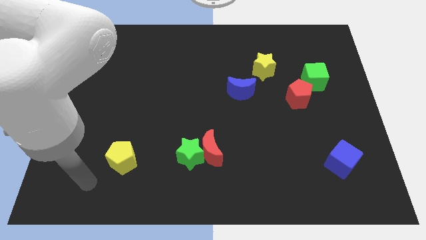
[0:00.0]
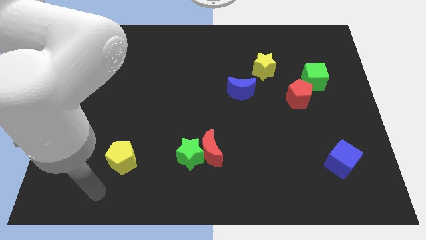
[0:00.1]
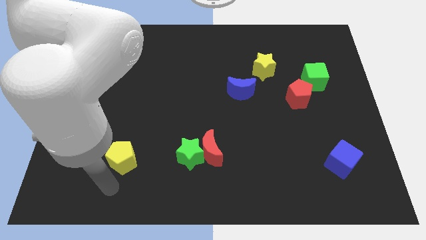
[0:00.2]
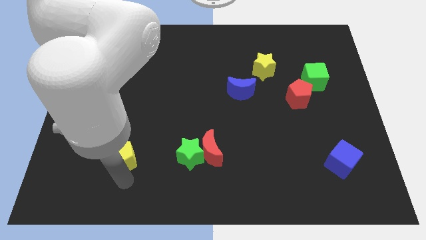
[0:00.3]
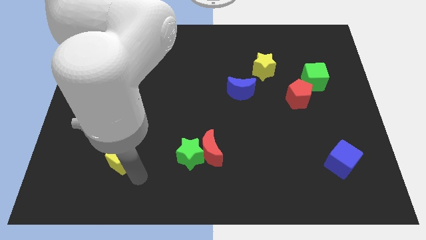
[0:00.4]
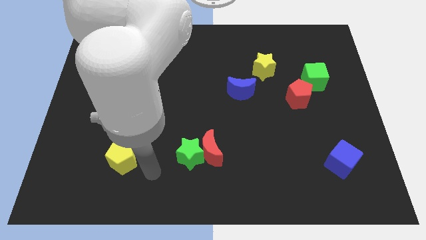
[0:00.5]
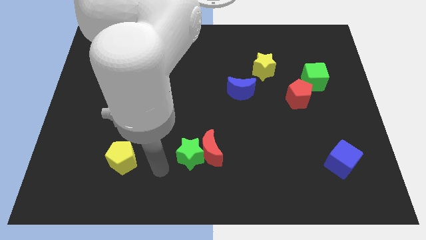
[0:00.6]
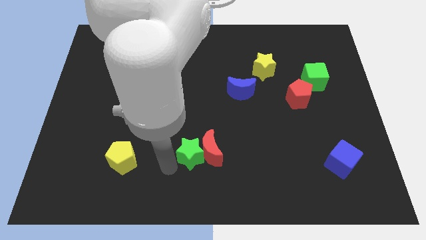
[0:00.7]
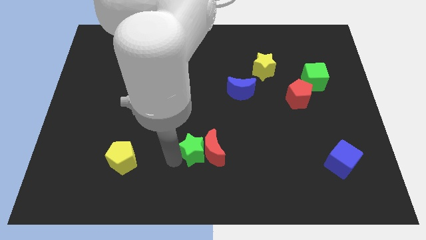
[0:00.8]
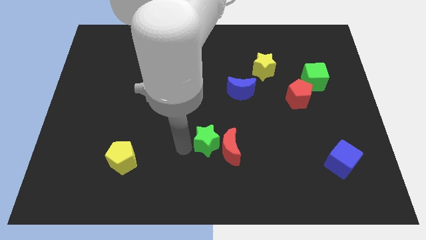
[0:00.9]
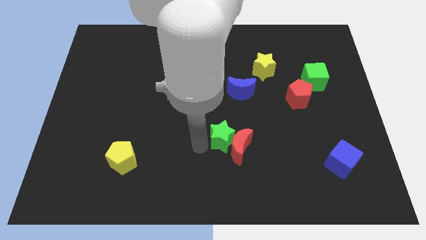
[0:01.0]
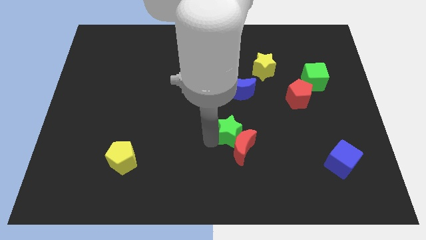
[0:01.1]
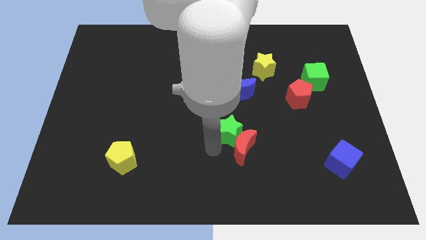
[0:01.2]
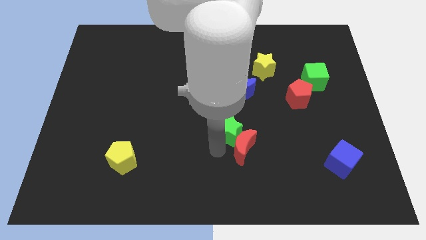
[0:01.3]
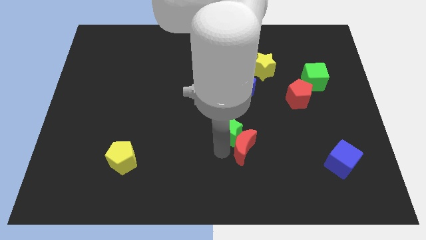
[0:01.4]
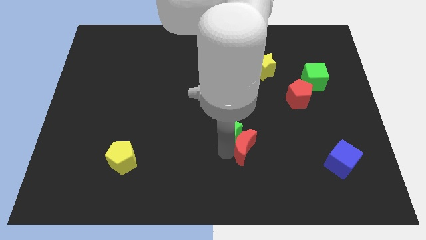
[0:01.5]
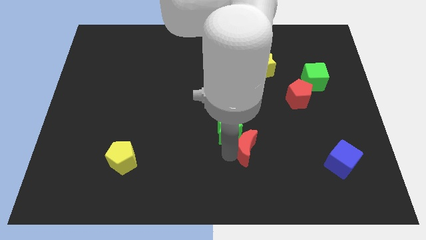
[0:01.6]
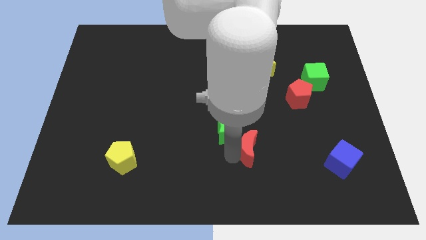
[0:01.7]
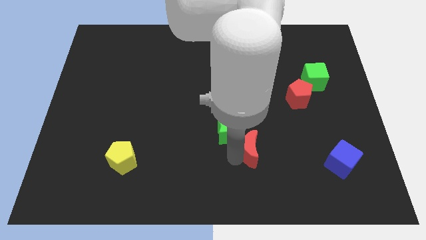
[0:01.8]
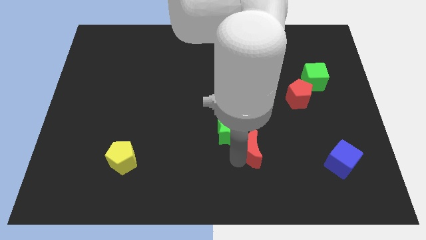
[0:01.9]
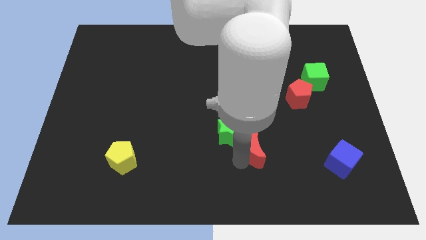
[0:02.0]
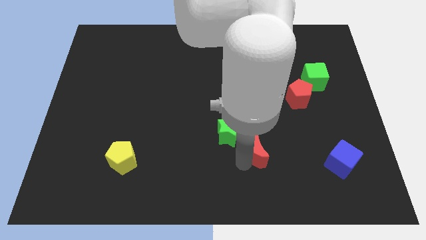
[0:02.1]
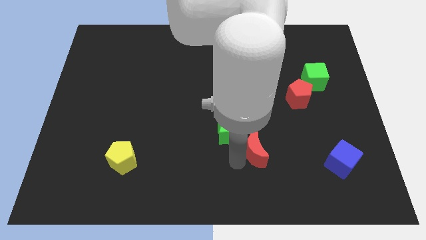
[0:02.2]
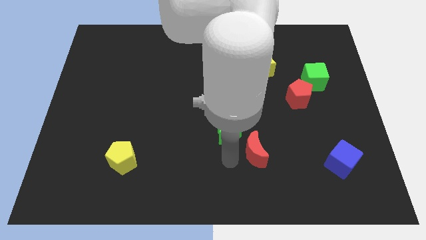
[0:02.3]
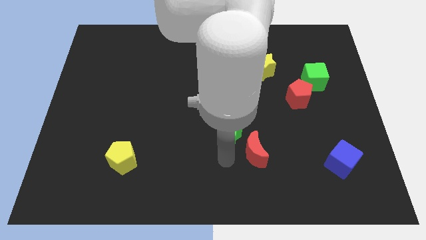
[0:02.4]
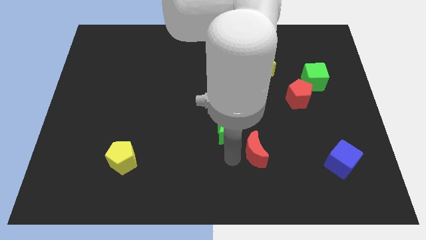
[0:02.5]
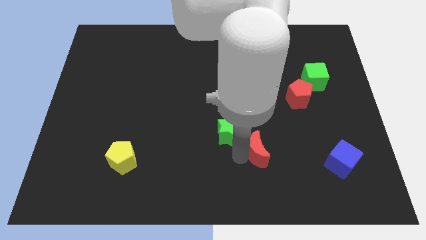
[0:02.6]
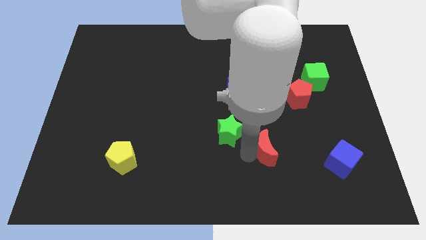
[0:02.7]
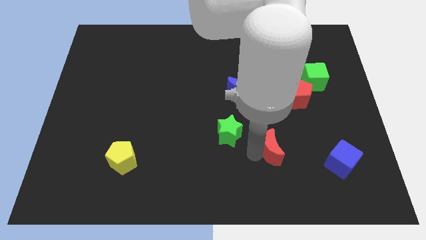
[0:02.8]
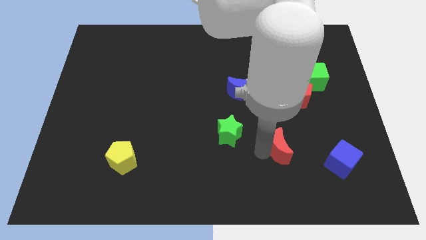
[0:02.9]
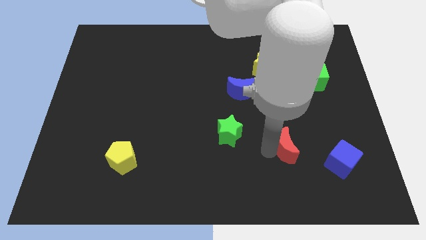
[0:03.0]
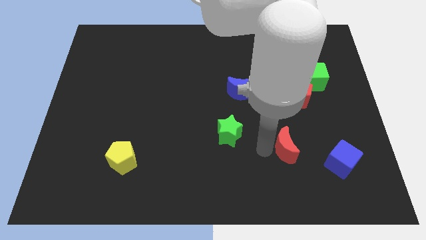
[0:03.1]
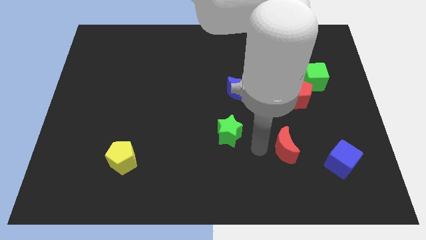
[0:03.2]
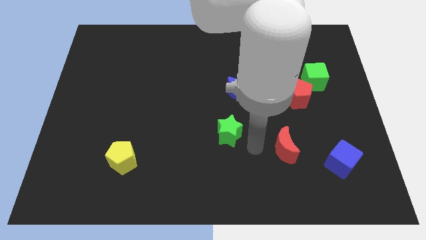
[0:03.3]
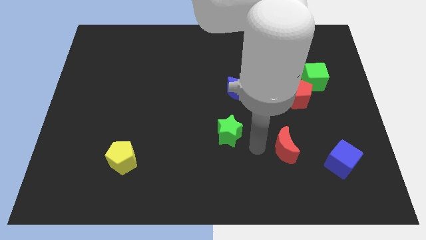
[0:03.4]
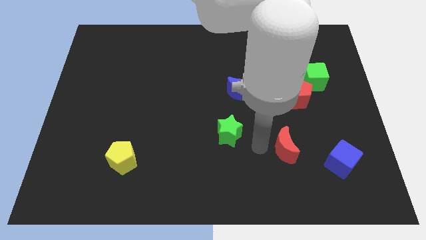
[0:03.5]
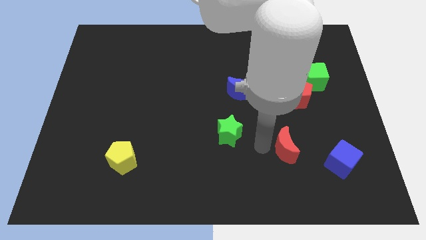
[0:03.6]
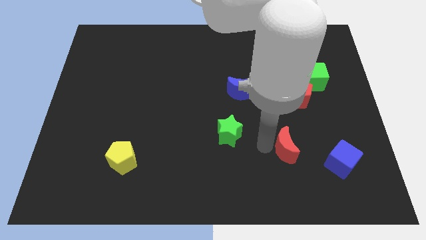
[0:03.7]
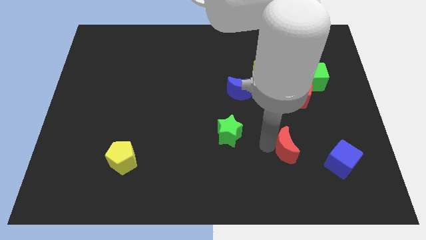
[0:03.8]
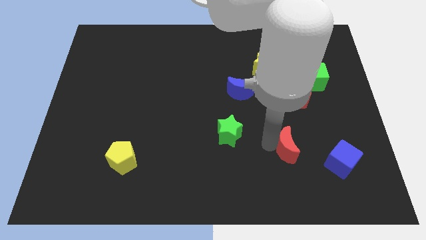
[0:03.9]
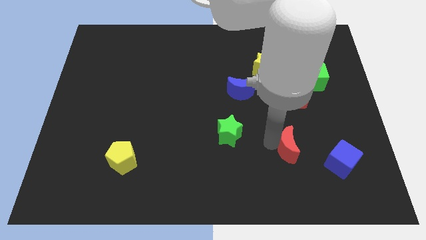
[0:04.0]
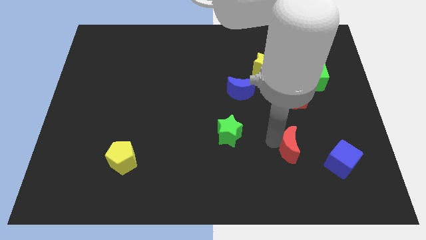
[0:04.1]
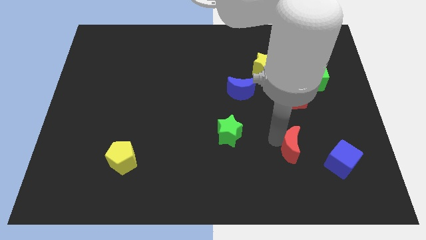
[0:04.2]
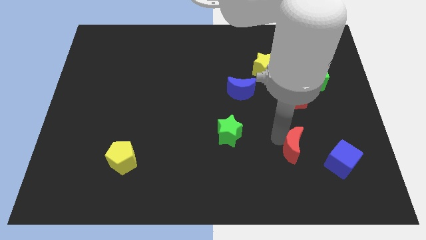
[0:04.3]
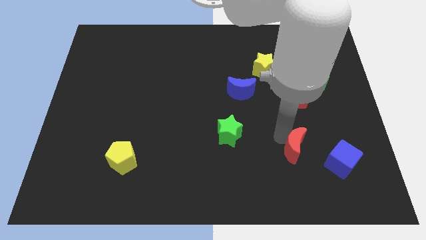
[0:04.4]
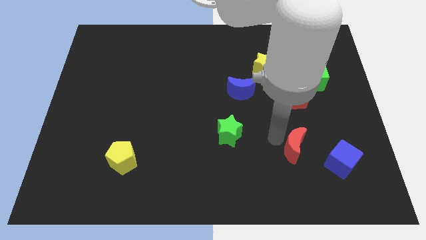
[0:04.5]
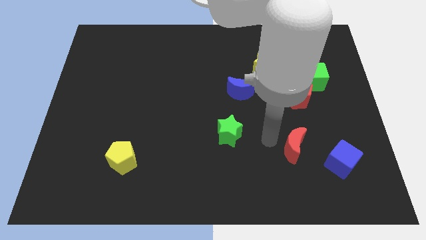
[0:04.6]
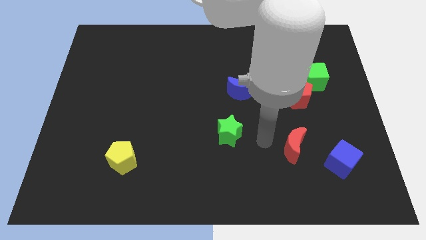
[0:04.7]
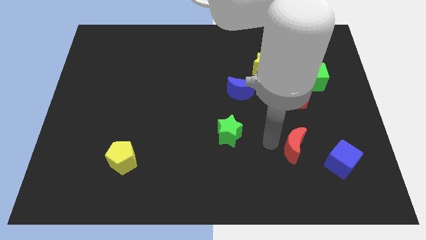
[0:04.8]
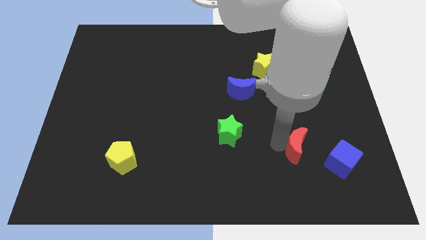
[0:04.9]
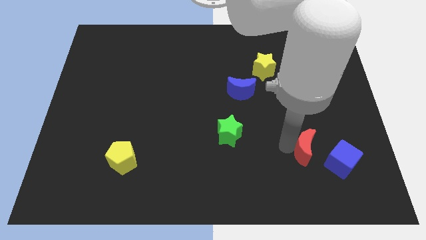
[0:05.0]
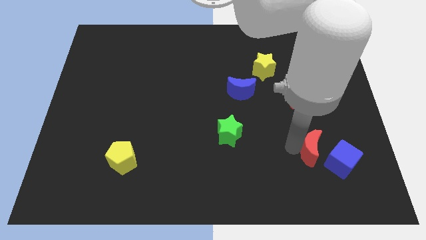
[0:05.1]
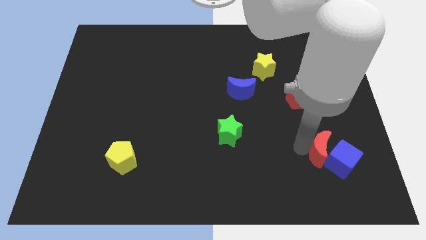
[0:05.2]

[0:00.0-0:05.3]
slide the red moon next to the blue cube

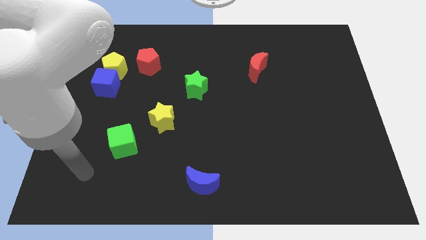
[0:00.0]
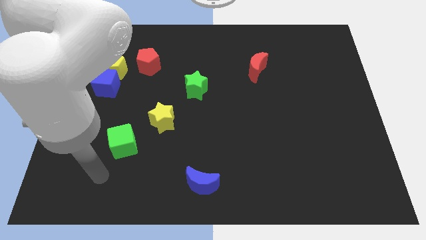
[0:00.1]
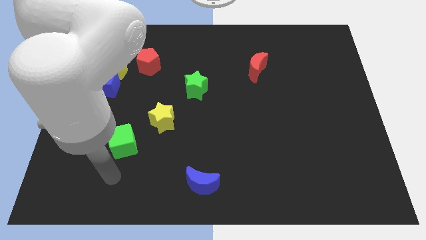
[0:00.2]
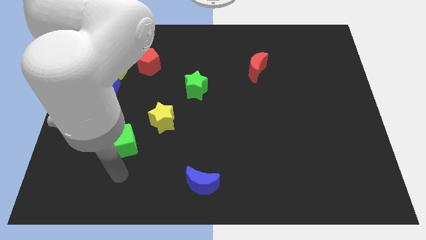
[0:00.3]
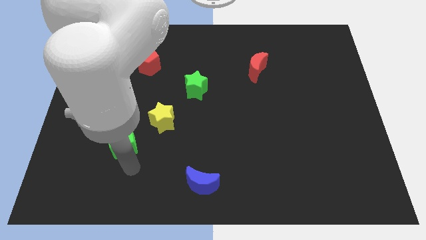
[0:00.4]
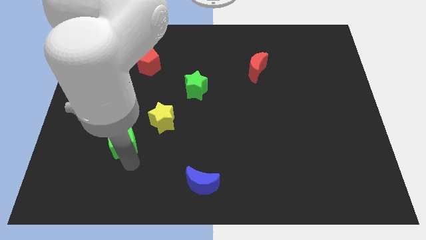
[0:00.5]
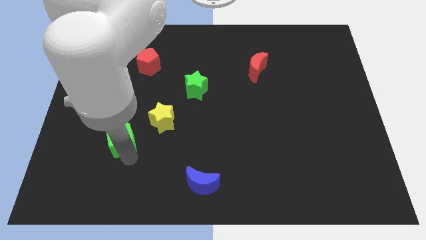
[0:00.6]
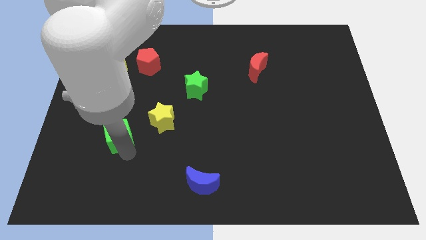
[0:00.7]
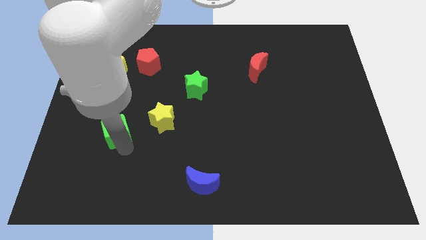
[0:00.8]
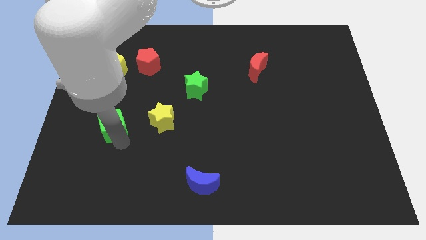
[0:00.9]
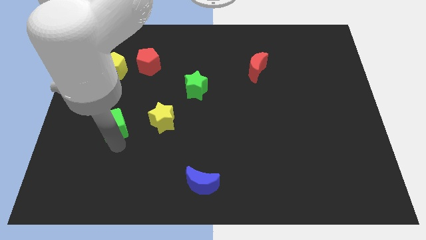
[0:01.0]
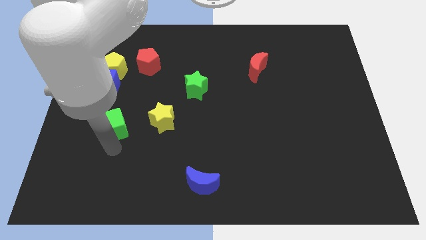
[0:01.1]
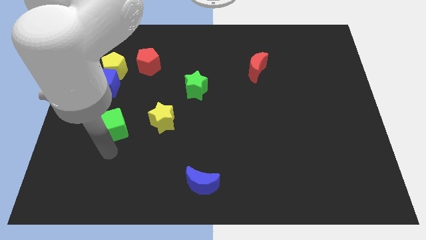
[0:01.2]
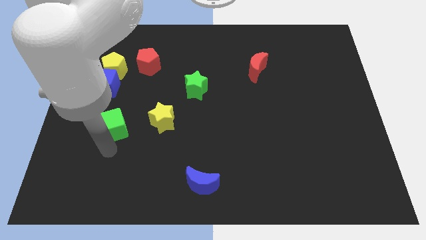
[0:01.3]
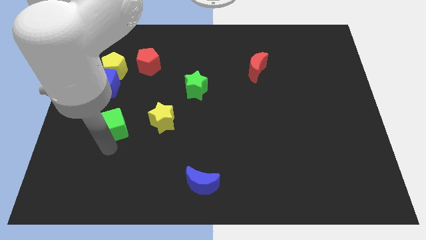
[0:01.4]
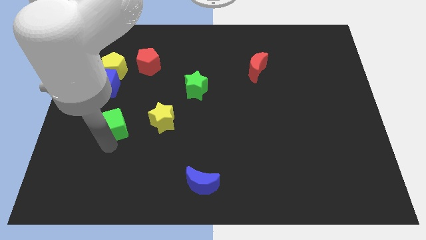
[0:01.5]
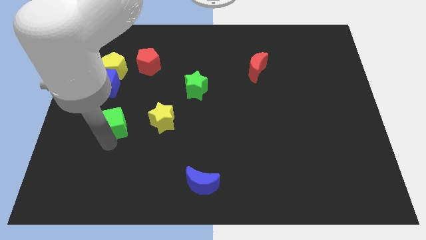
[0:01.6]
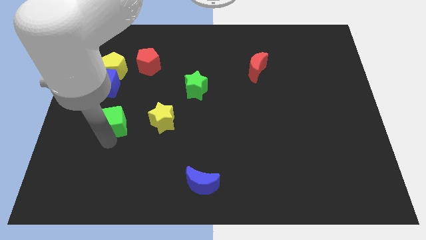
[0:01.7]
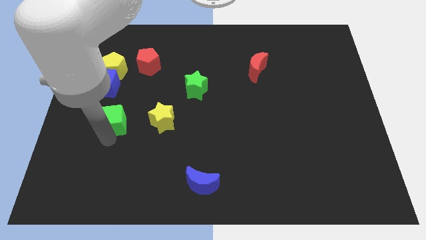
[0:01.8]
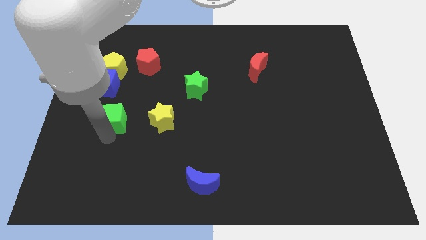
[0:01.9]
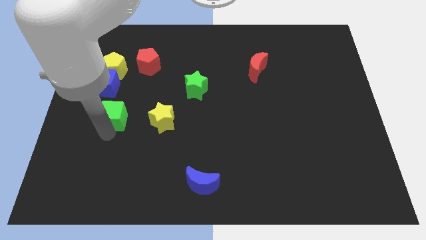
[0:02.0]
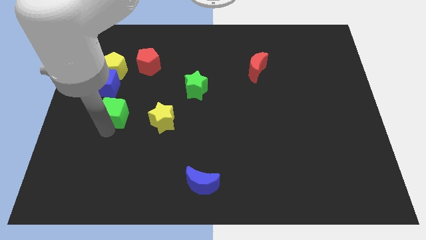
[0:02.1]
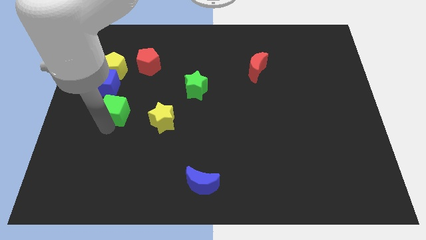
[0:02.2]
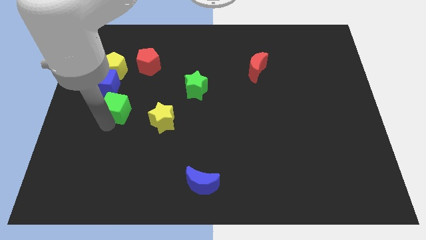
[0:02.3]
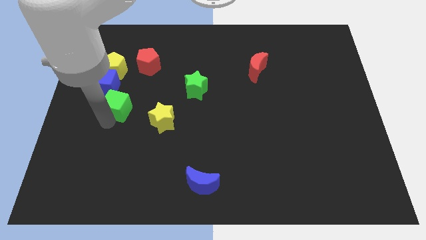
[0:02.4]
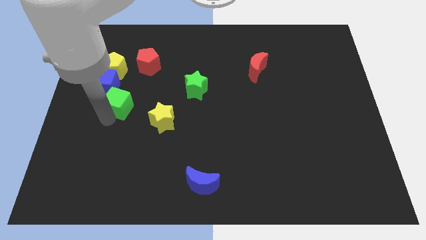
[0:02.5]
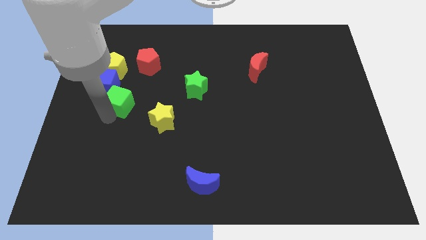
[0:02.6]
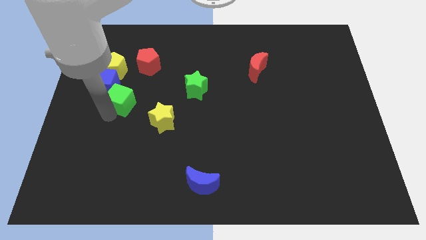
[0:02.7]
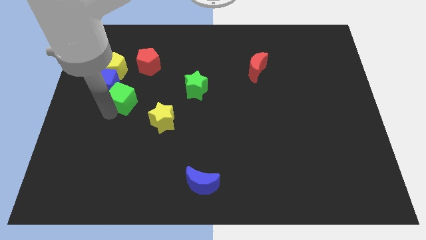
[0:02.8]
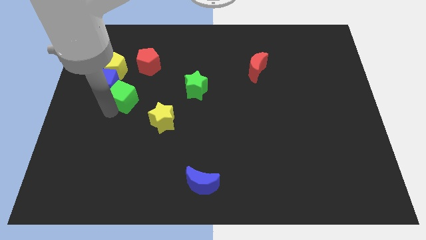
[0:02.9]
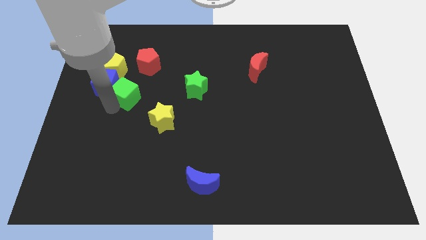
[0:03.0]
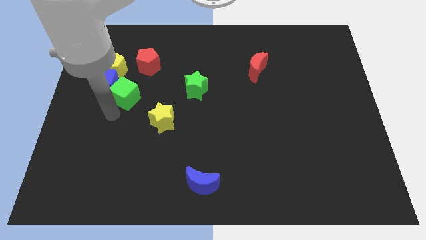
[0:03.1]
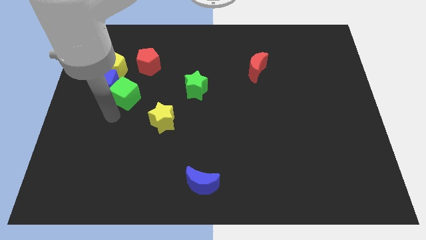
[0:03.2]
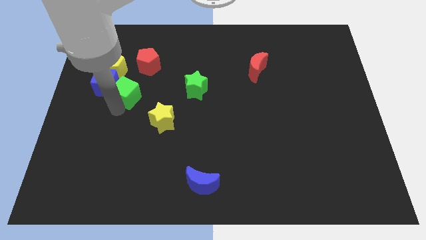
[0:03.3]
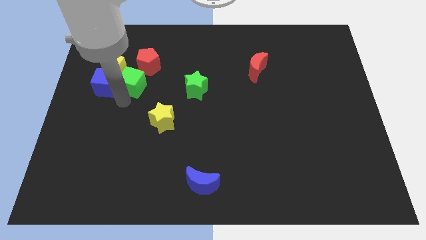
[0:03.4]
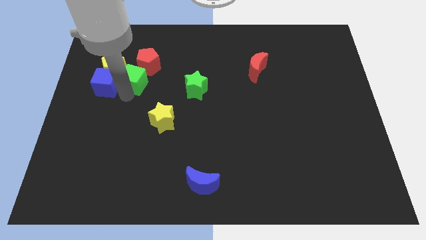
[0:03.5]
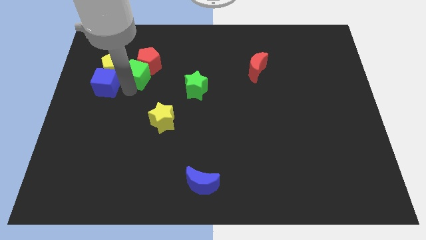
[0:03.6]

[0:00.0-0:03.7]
push the green cube next to the red pentagon
